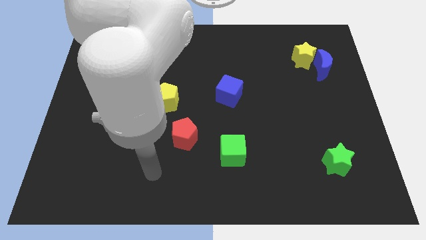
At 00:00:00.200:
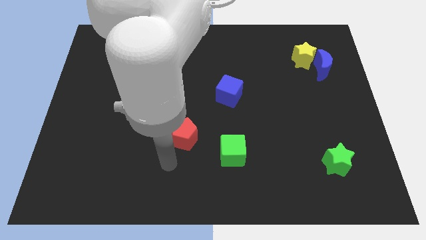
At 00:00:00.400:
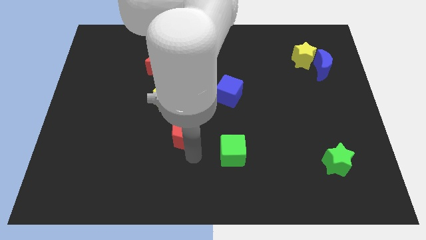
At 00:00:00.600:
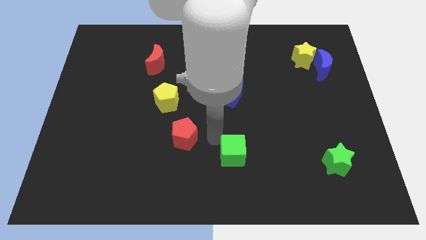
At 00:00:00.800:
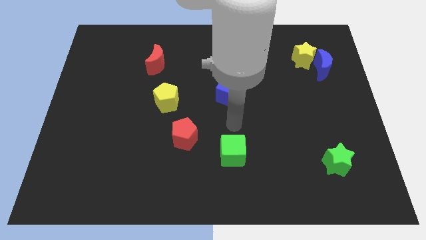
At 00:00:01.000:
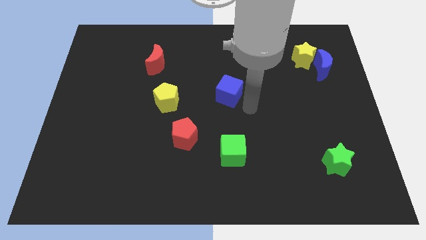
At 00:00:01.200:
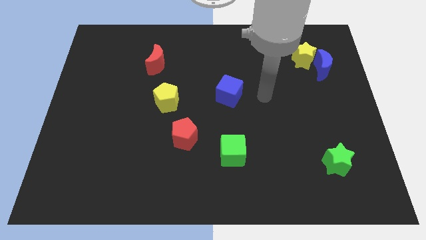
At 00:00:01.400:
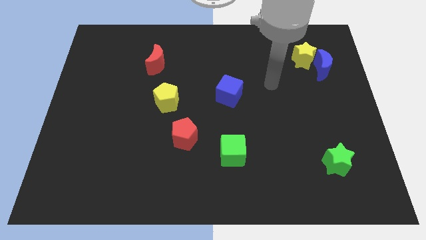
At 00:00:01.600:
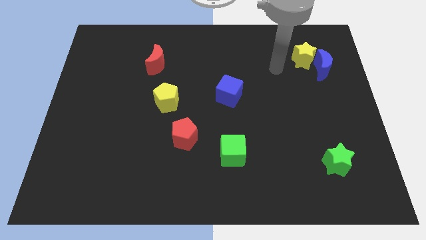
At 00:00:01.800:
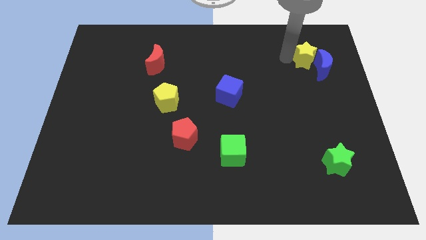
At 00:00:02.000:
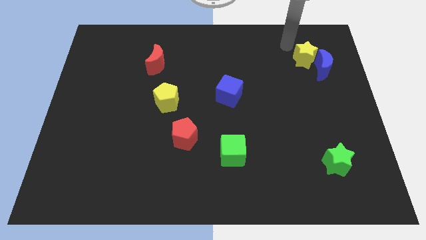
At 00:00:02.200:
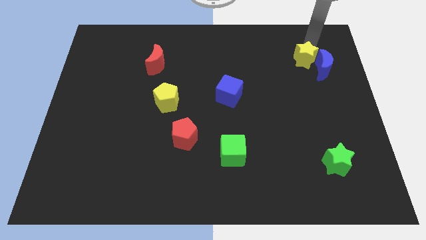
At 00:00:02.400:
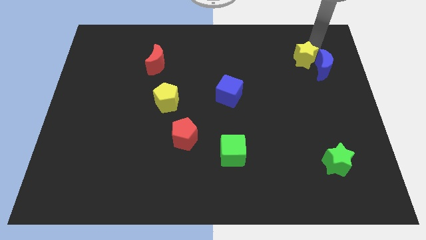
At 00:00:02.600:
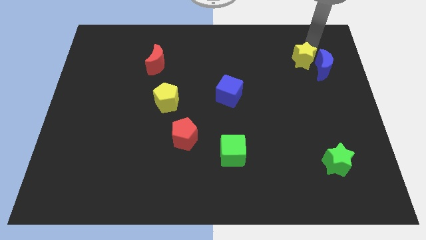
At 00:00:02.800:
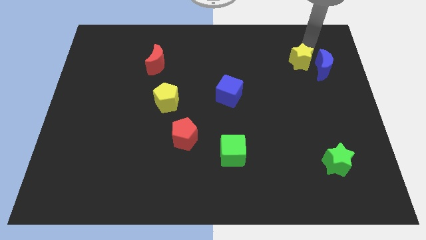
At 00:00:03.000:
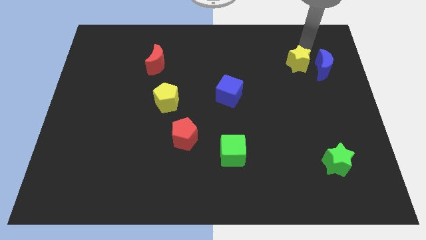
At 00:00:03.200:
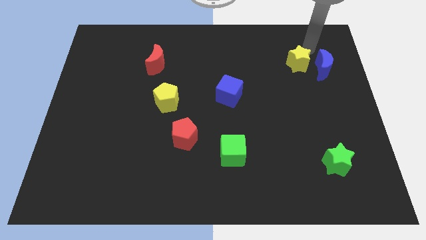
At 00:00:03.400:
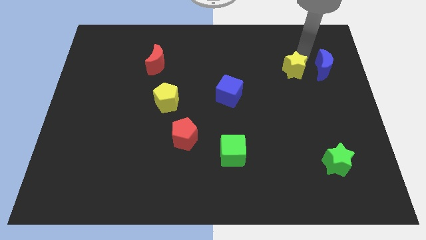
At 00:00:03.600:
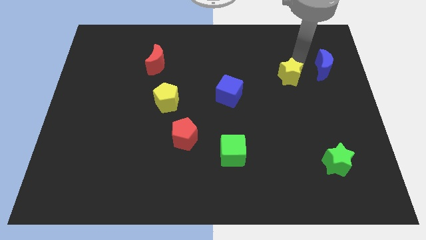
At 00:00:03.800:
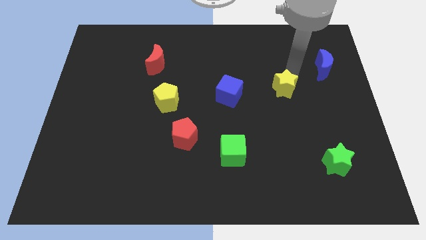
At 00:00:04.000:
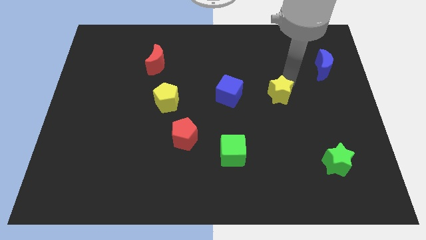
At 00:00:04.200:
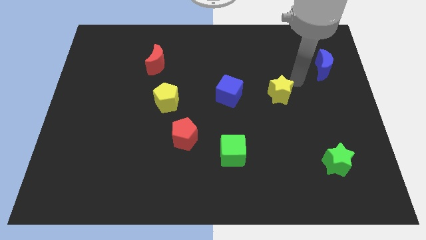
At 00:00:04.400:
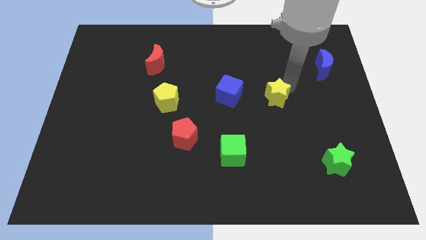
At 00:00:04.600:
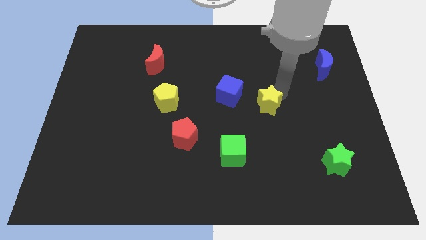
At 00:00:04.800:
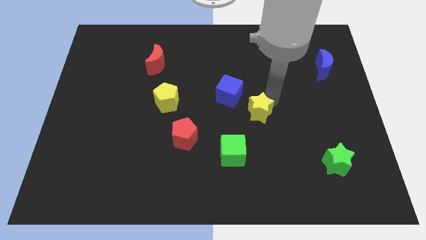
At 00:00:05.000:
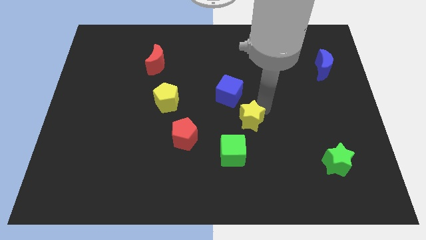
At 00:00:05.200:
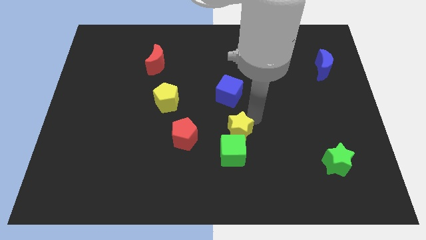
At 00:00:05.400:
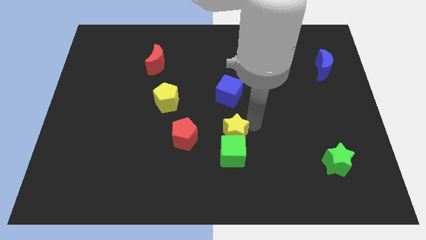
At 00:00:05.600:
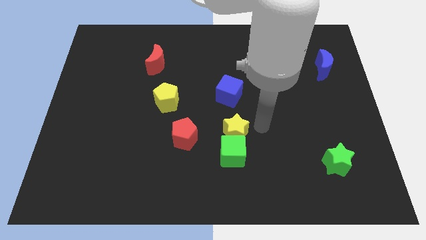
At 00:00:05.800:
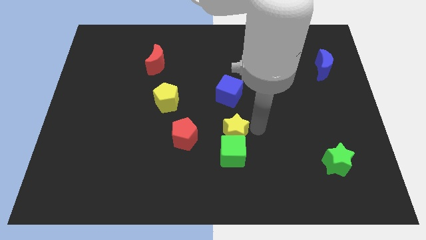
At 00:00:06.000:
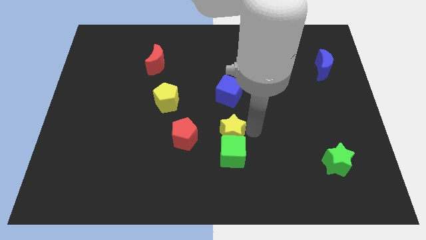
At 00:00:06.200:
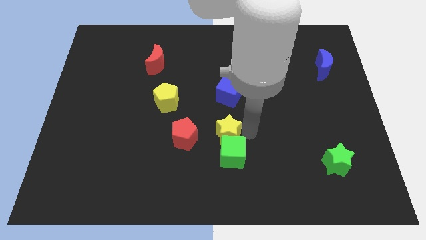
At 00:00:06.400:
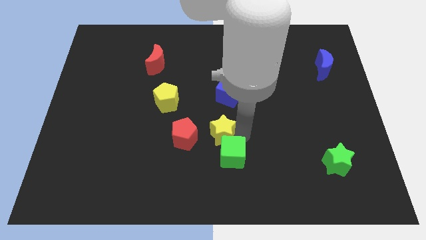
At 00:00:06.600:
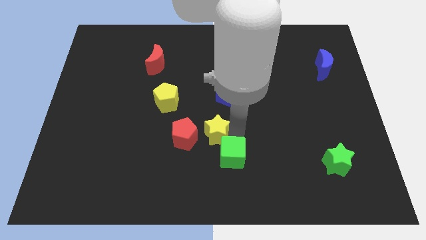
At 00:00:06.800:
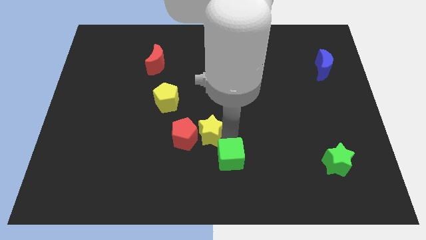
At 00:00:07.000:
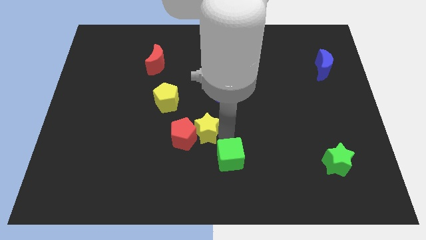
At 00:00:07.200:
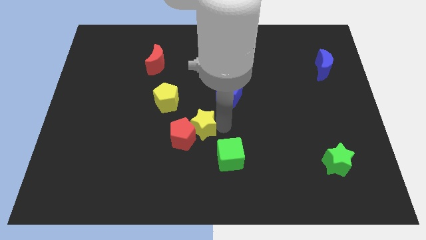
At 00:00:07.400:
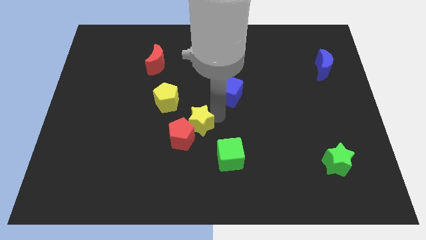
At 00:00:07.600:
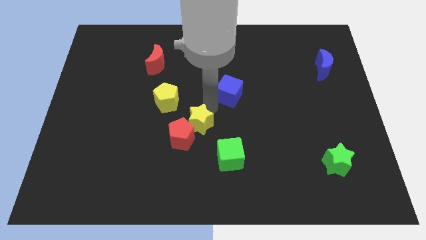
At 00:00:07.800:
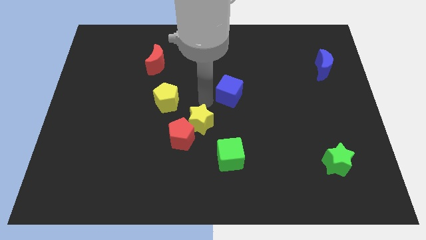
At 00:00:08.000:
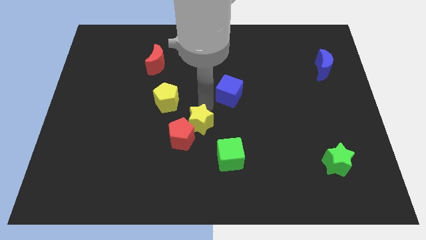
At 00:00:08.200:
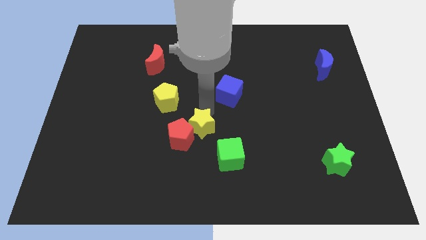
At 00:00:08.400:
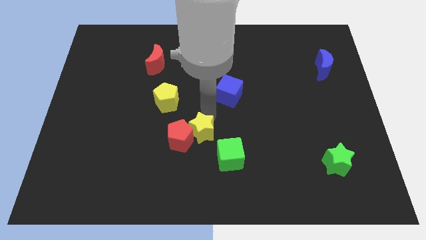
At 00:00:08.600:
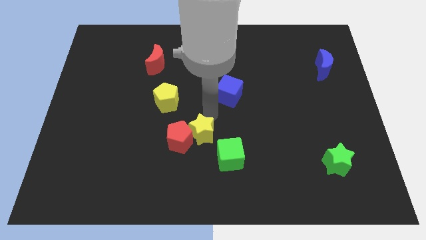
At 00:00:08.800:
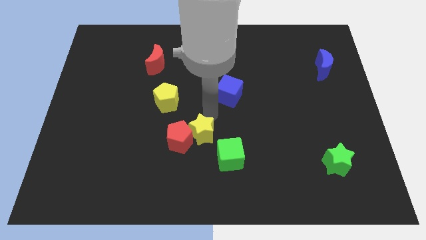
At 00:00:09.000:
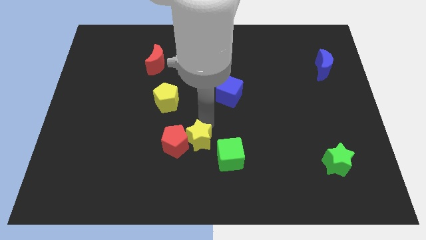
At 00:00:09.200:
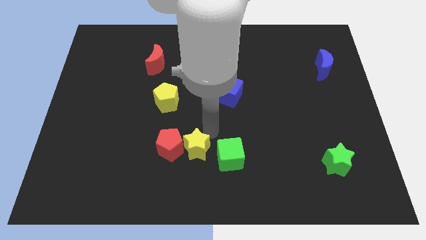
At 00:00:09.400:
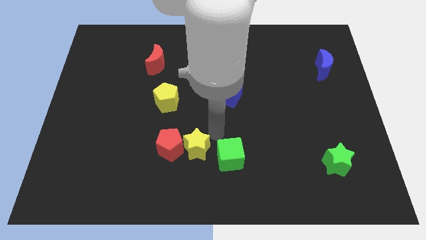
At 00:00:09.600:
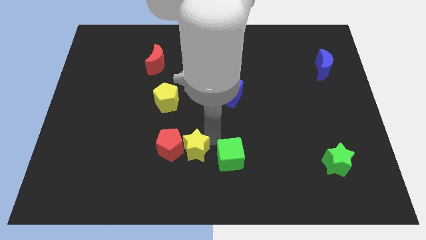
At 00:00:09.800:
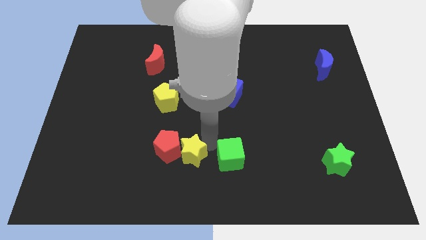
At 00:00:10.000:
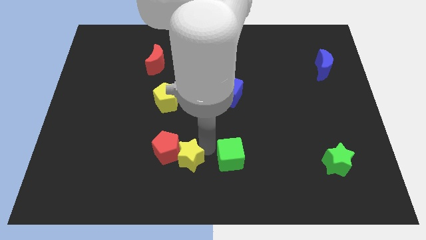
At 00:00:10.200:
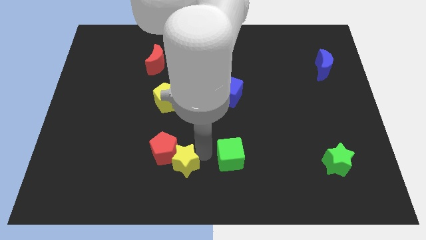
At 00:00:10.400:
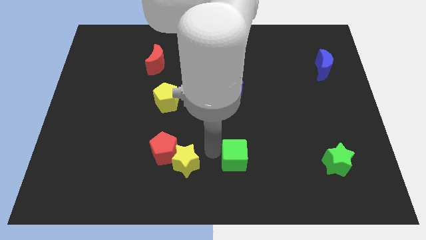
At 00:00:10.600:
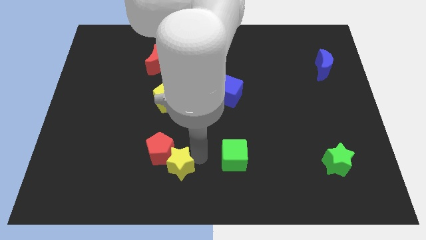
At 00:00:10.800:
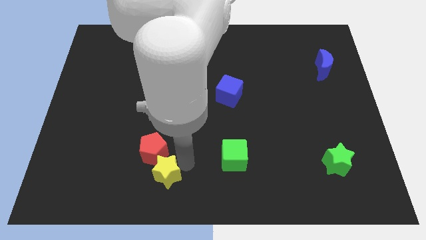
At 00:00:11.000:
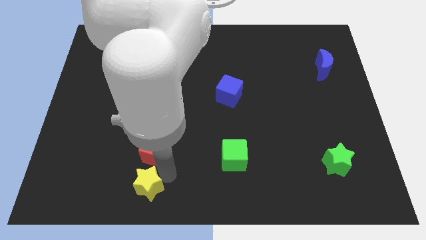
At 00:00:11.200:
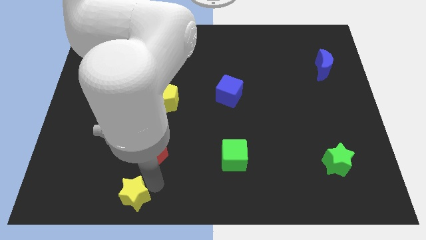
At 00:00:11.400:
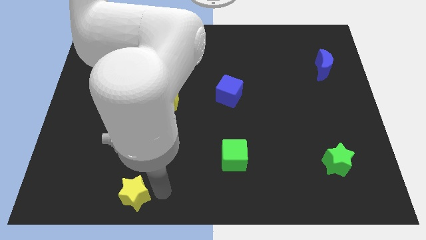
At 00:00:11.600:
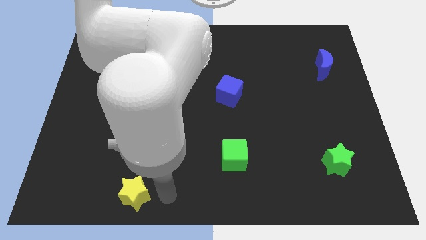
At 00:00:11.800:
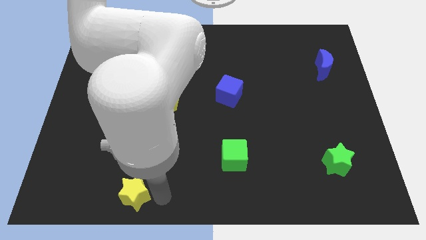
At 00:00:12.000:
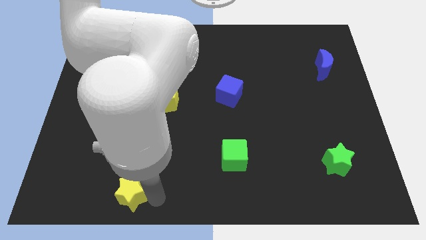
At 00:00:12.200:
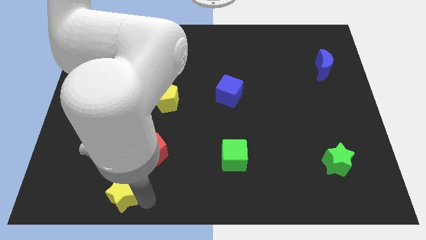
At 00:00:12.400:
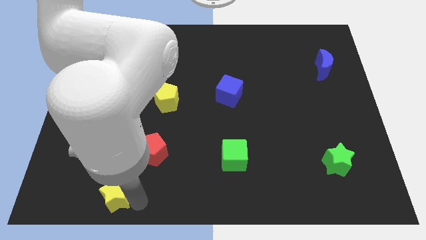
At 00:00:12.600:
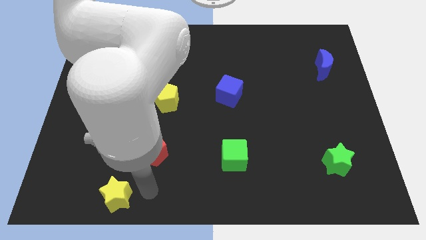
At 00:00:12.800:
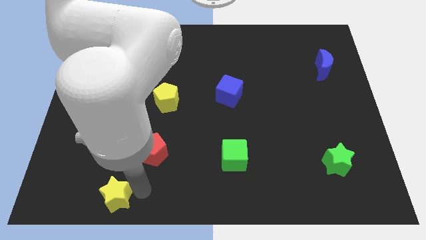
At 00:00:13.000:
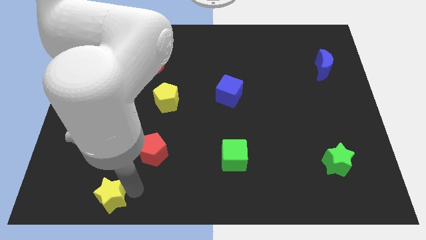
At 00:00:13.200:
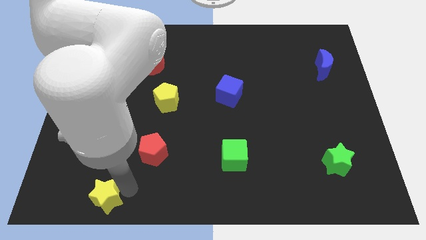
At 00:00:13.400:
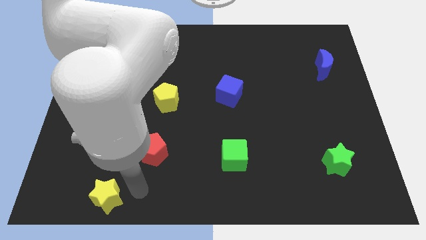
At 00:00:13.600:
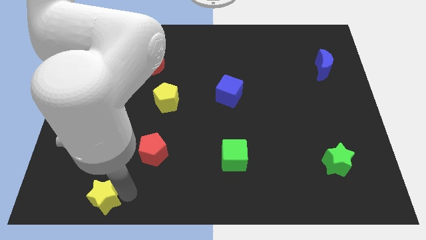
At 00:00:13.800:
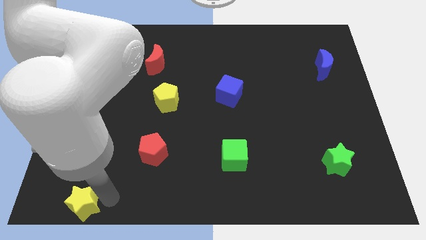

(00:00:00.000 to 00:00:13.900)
put the yellow star to the bottom left corner
